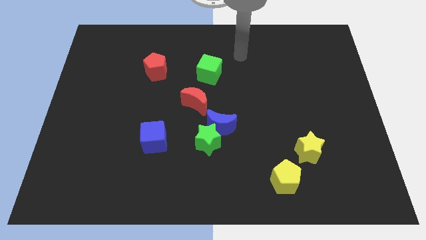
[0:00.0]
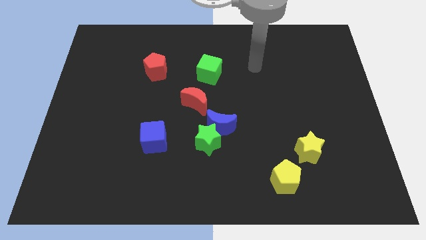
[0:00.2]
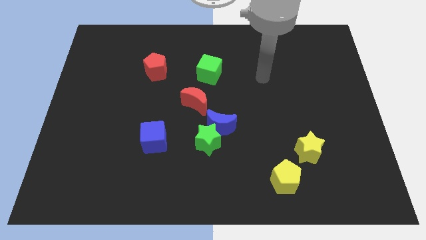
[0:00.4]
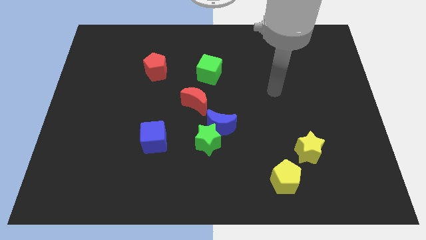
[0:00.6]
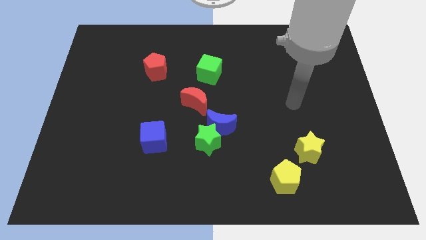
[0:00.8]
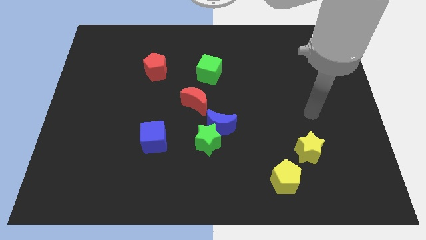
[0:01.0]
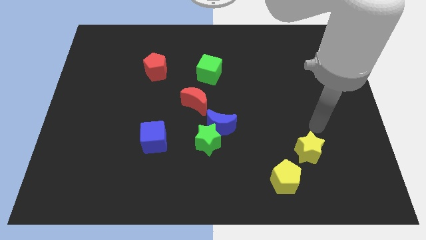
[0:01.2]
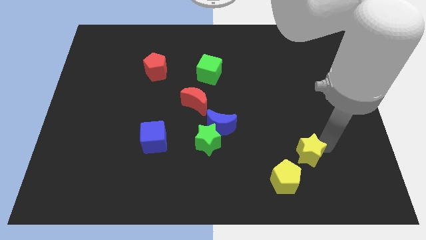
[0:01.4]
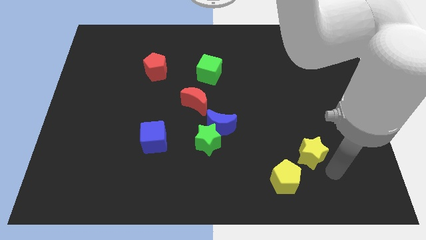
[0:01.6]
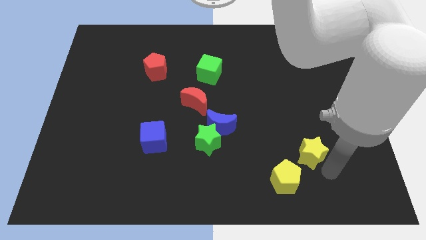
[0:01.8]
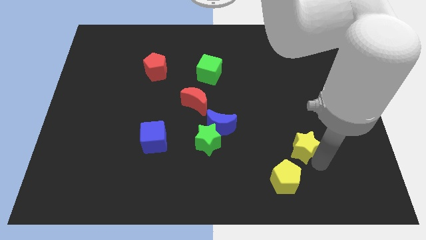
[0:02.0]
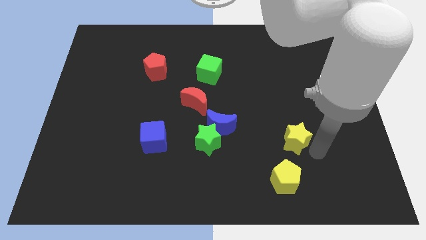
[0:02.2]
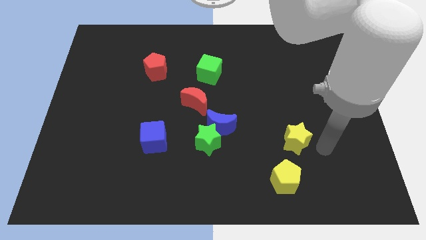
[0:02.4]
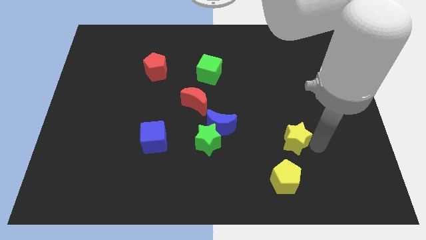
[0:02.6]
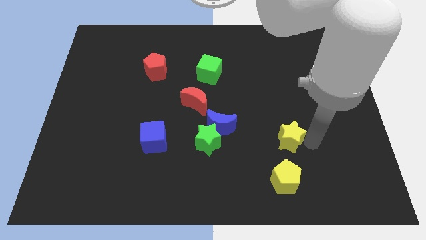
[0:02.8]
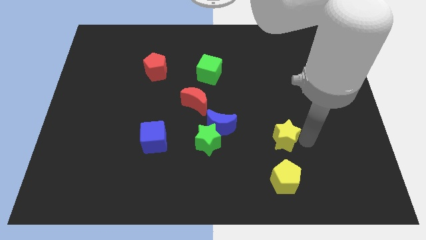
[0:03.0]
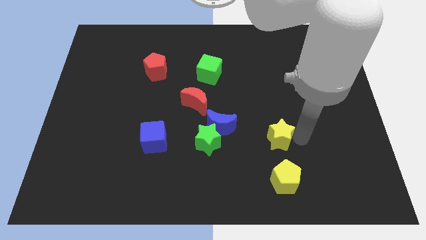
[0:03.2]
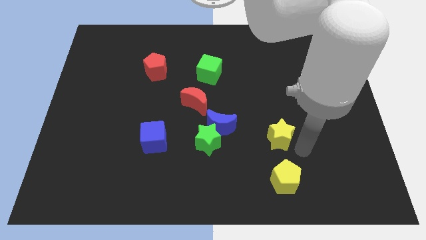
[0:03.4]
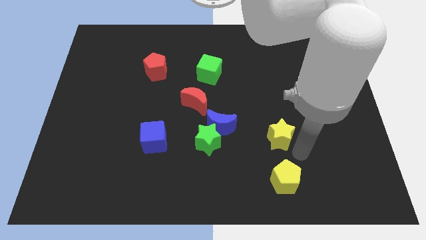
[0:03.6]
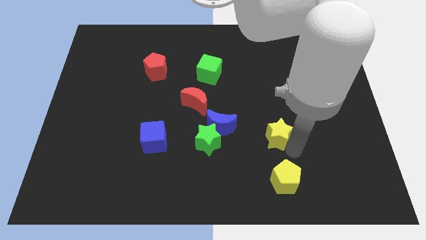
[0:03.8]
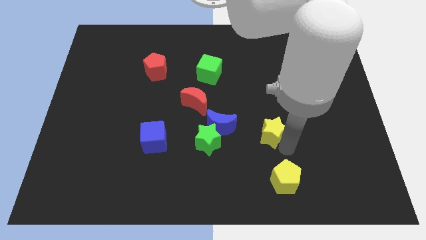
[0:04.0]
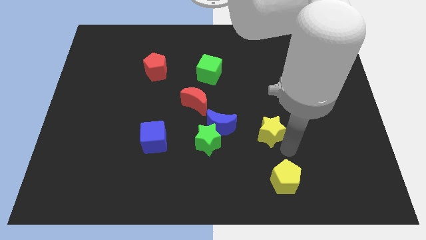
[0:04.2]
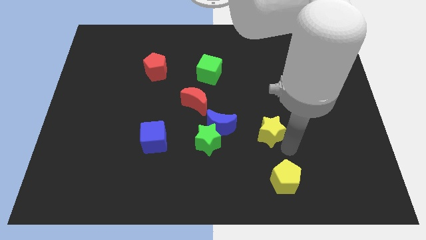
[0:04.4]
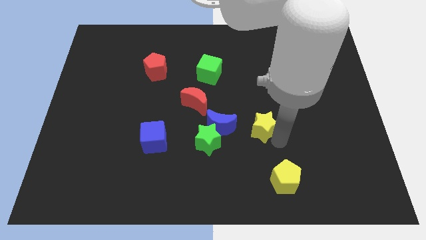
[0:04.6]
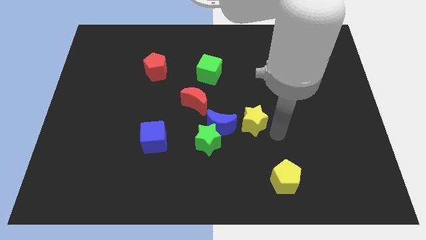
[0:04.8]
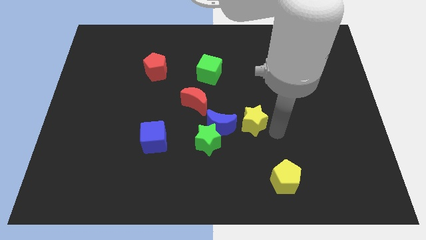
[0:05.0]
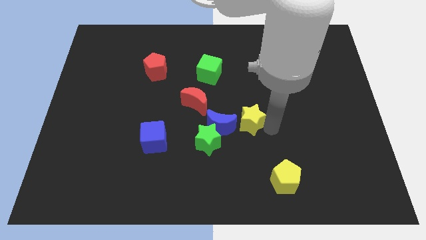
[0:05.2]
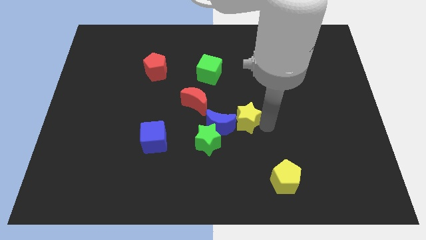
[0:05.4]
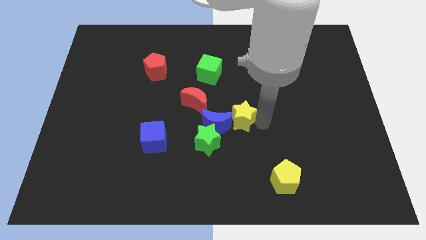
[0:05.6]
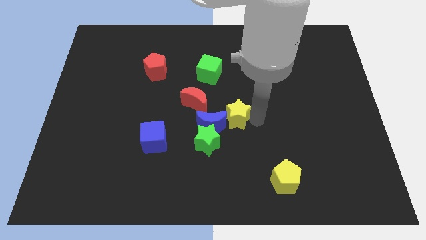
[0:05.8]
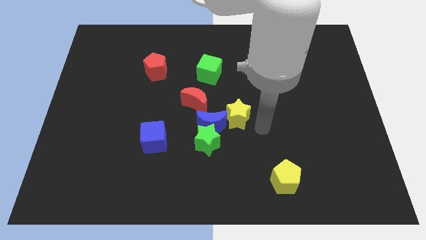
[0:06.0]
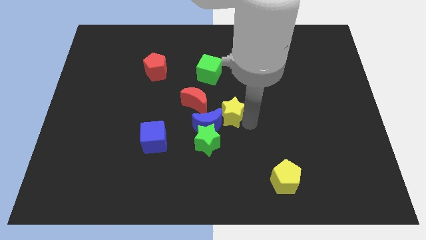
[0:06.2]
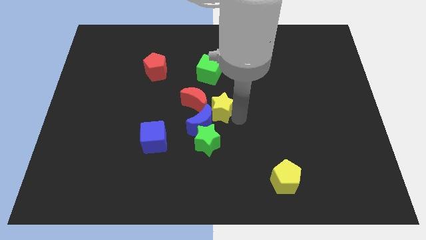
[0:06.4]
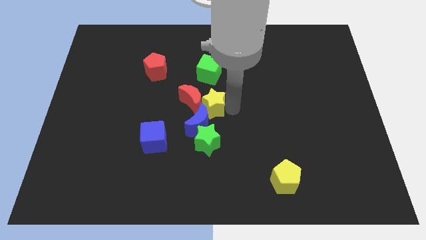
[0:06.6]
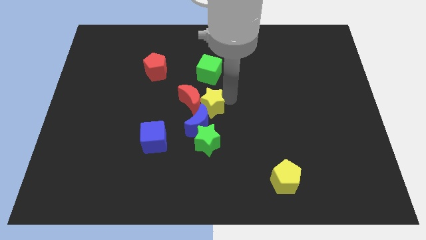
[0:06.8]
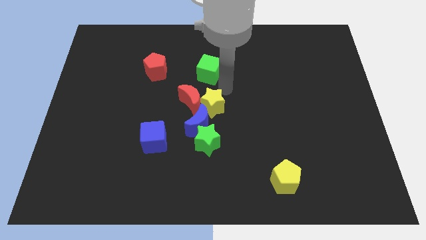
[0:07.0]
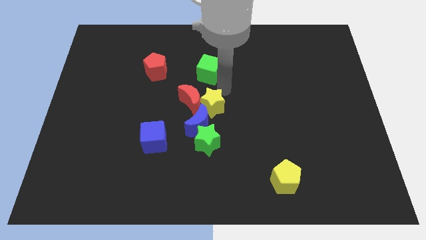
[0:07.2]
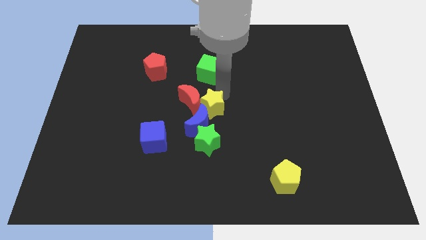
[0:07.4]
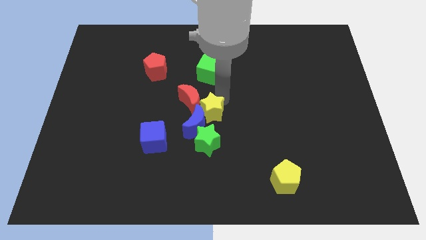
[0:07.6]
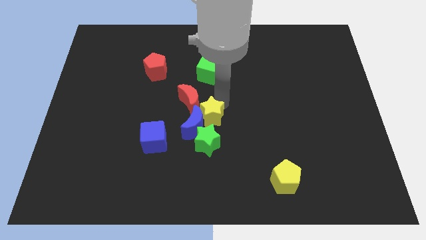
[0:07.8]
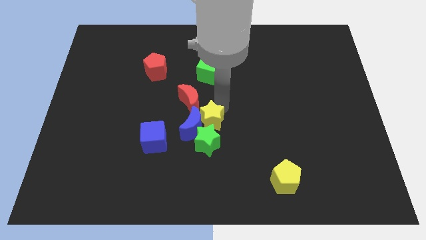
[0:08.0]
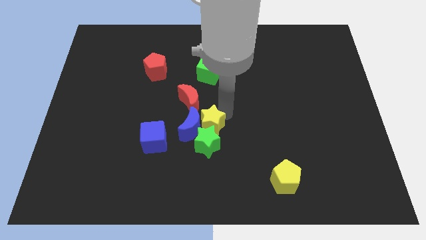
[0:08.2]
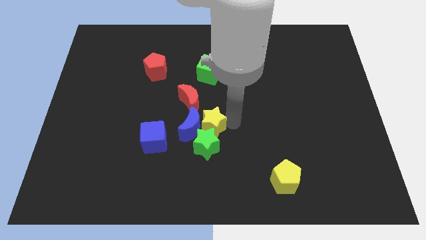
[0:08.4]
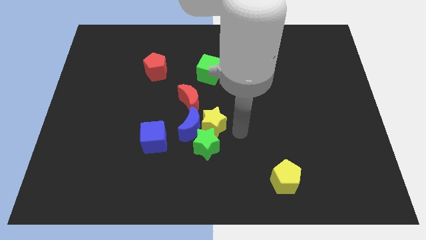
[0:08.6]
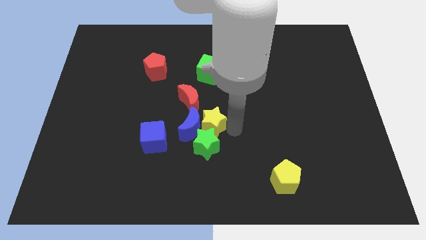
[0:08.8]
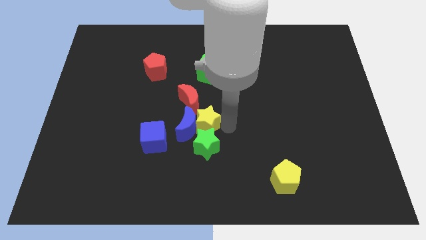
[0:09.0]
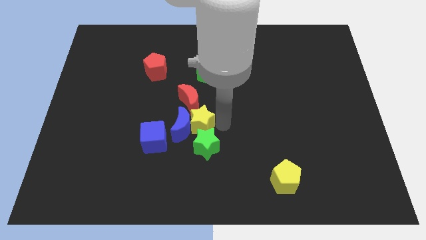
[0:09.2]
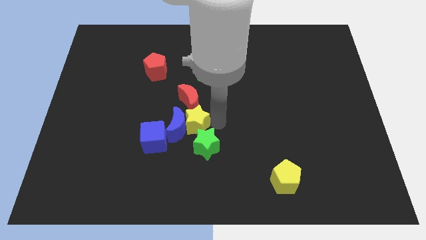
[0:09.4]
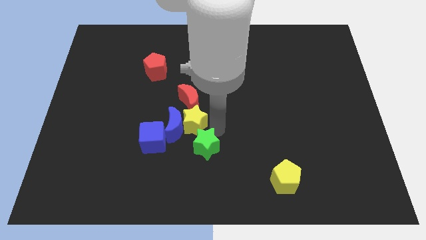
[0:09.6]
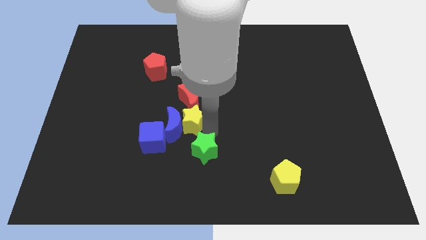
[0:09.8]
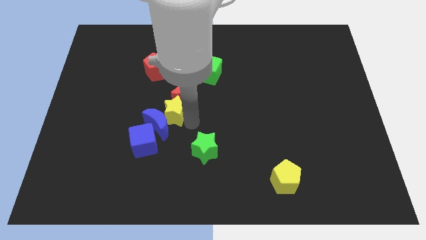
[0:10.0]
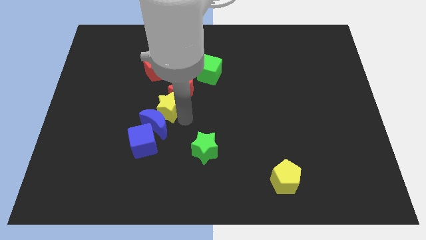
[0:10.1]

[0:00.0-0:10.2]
slide the yellow star to the bottom of the red pentagon

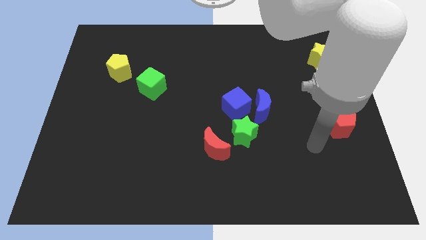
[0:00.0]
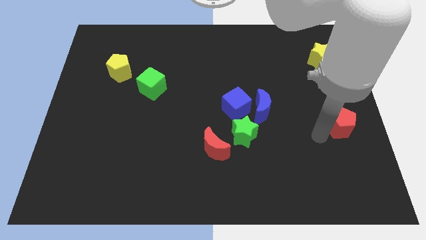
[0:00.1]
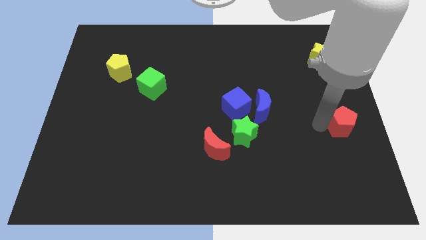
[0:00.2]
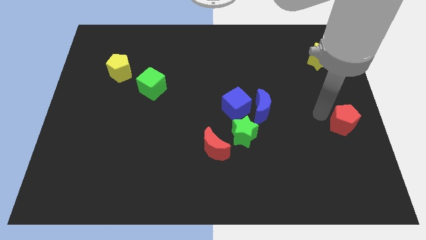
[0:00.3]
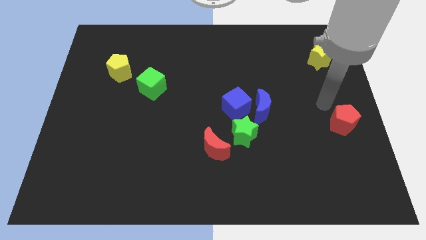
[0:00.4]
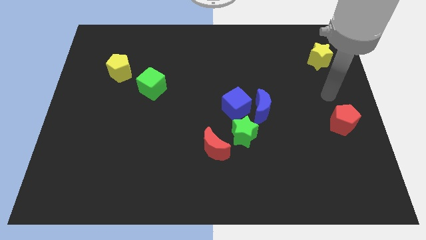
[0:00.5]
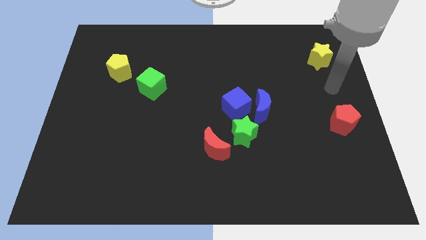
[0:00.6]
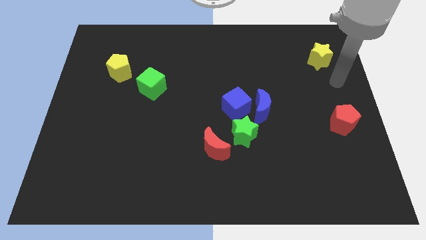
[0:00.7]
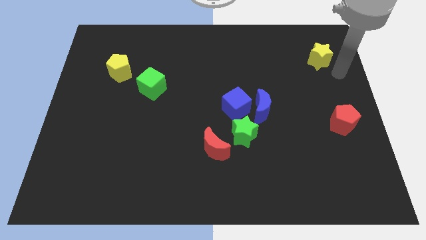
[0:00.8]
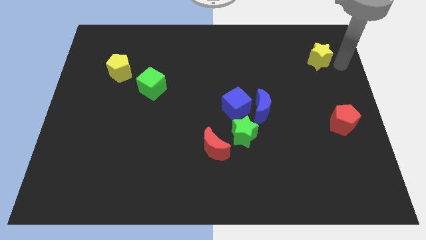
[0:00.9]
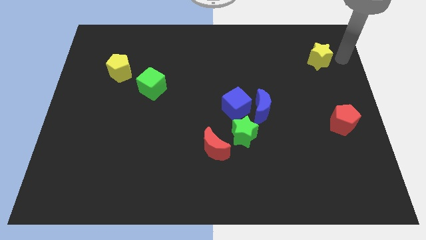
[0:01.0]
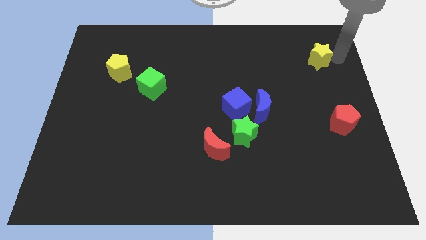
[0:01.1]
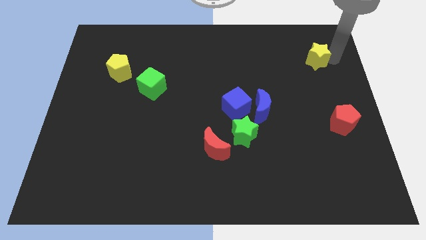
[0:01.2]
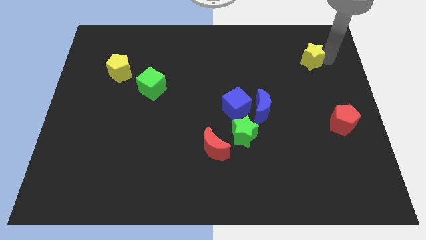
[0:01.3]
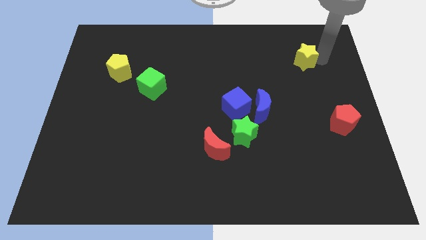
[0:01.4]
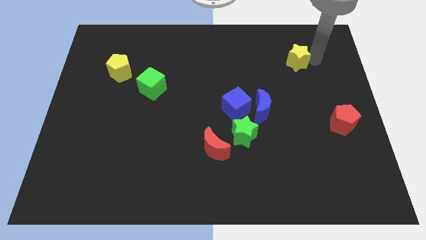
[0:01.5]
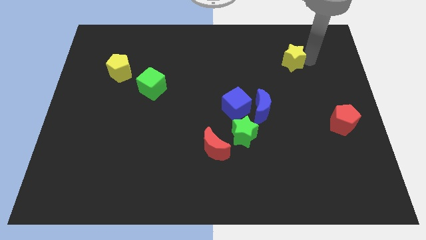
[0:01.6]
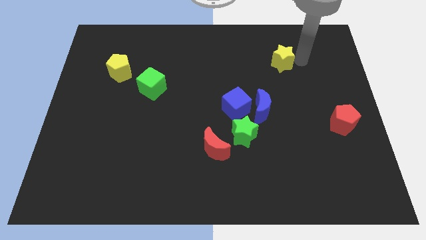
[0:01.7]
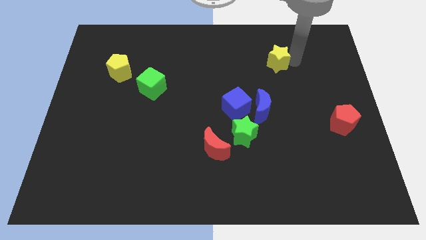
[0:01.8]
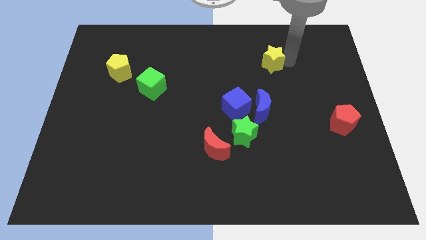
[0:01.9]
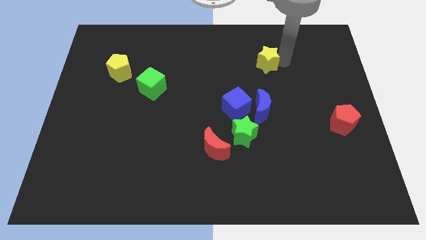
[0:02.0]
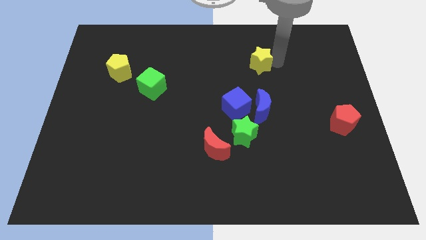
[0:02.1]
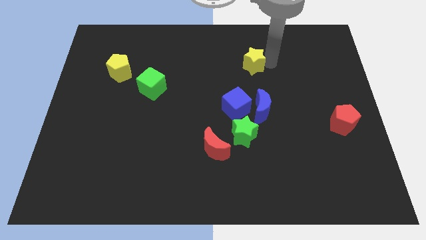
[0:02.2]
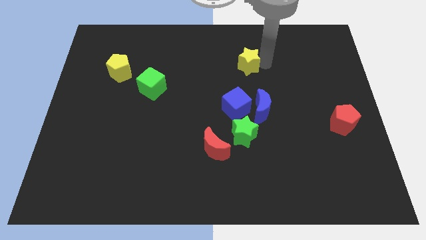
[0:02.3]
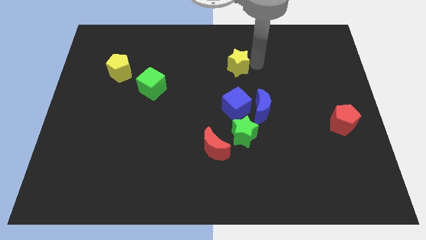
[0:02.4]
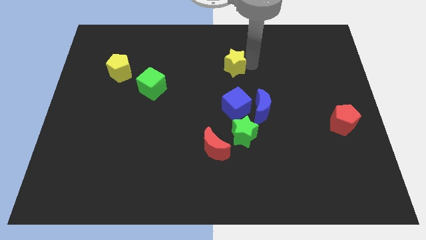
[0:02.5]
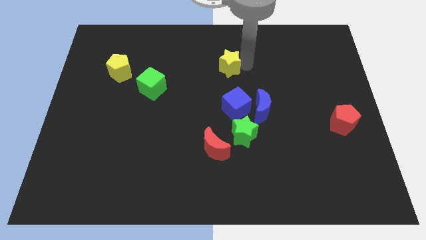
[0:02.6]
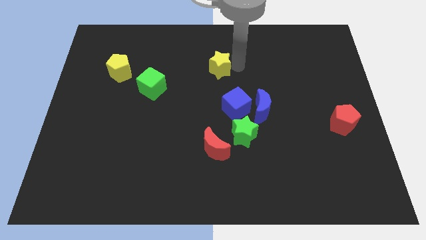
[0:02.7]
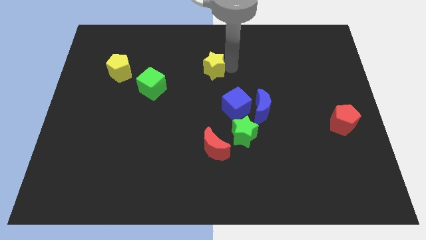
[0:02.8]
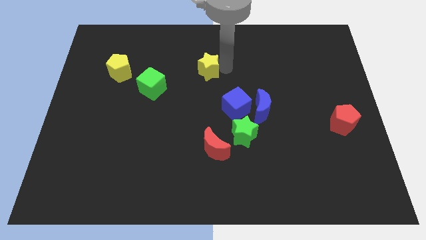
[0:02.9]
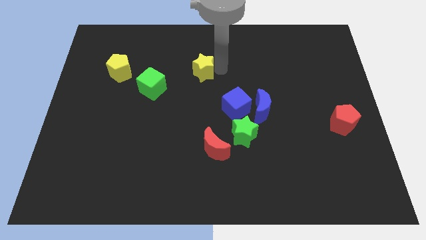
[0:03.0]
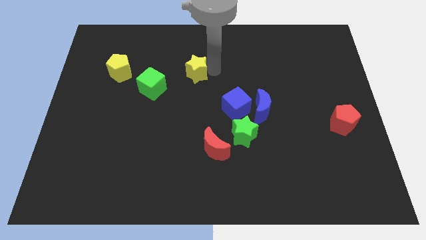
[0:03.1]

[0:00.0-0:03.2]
put the yellow star diagonally up and to the right of the green cube
